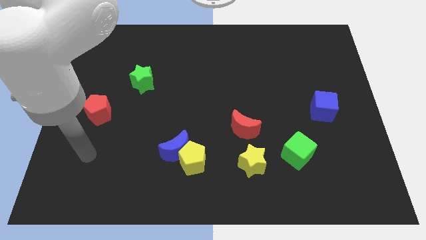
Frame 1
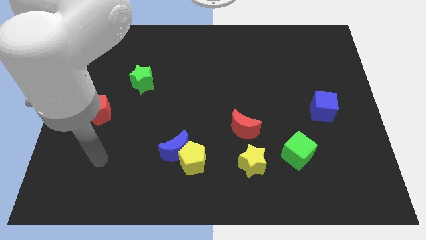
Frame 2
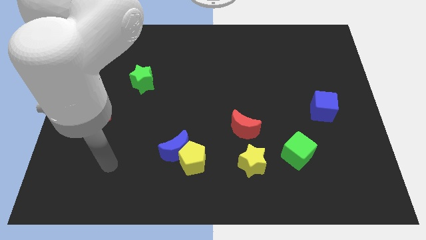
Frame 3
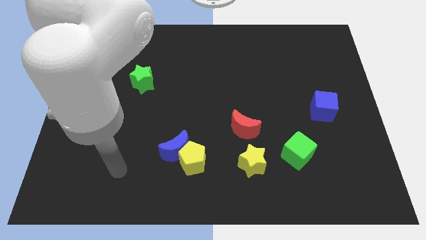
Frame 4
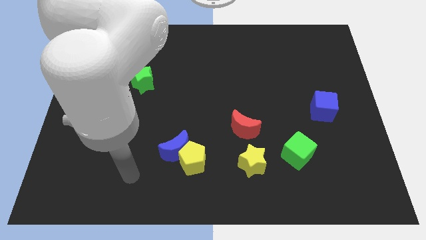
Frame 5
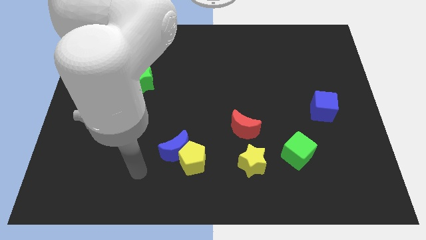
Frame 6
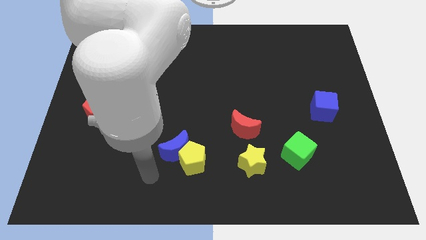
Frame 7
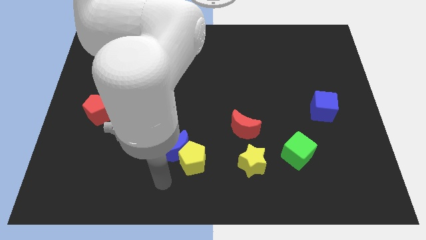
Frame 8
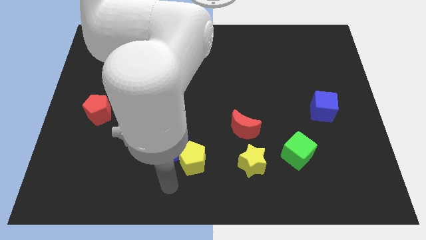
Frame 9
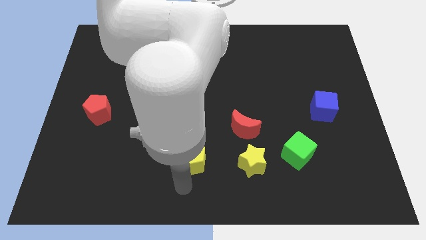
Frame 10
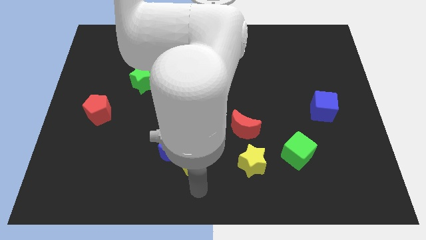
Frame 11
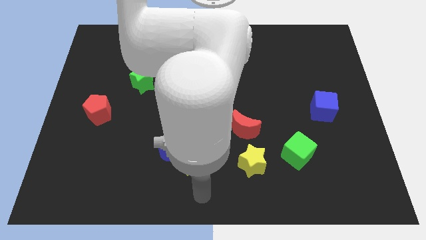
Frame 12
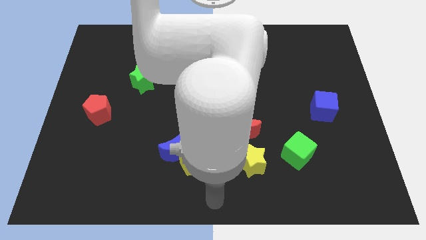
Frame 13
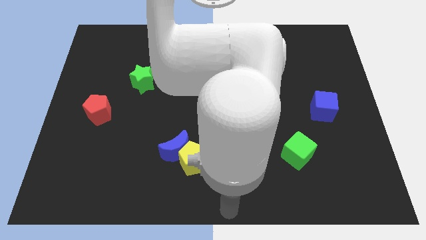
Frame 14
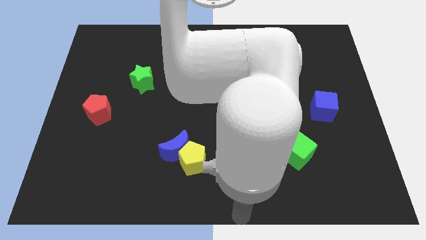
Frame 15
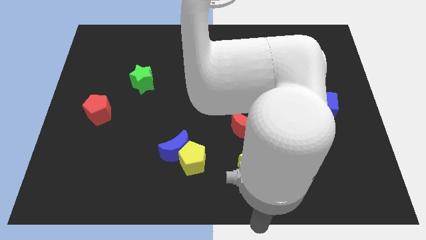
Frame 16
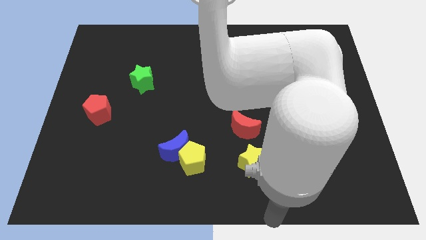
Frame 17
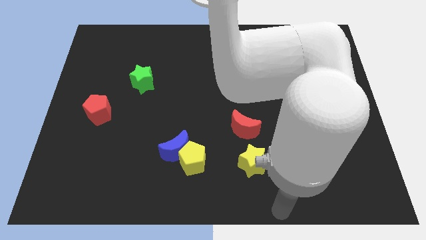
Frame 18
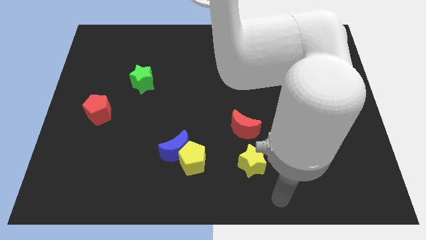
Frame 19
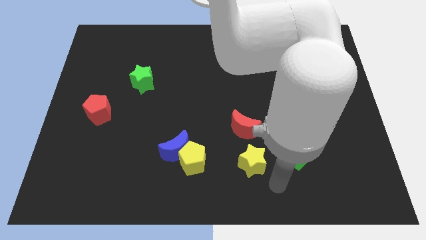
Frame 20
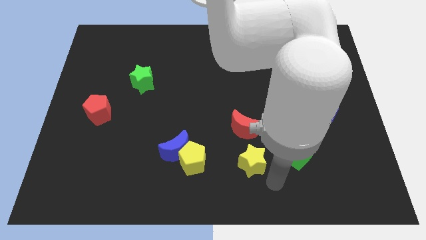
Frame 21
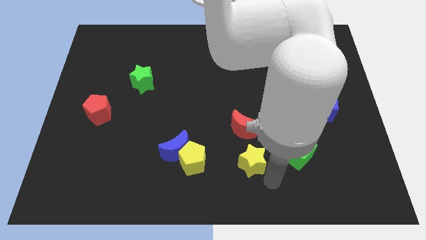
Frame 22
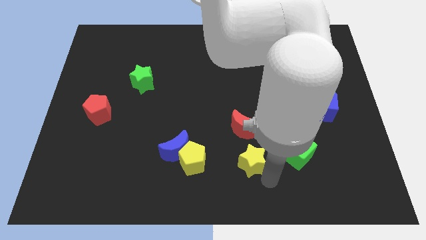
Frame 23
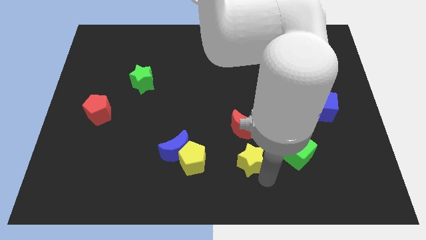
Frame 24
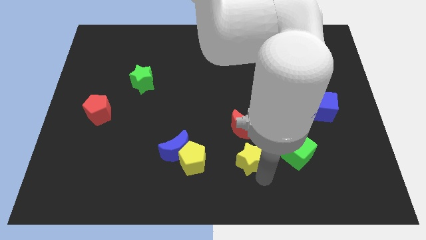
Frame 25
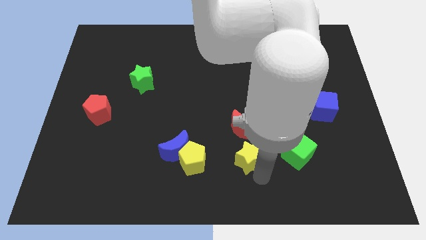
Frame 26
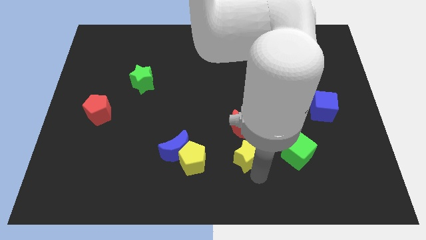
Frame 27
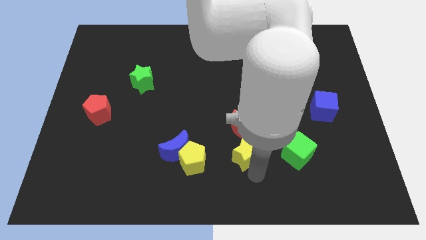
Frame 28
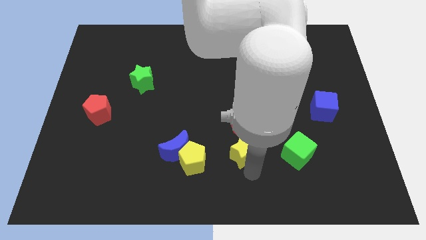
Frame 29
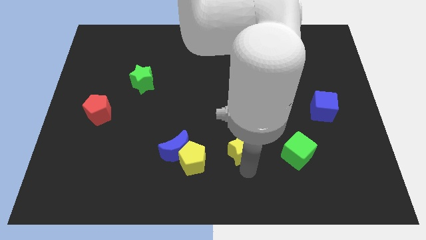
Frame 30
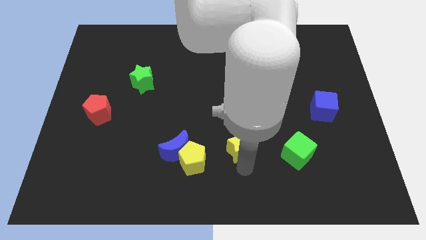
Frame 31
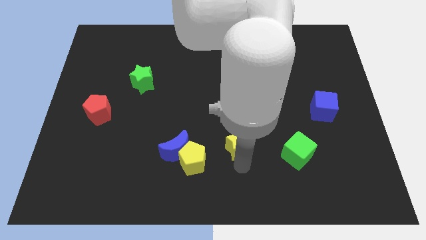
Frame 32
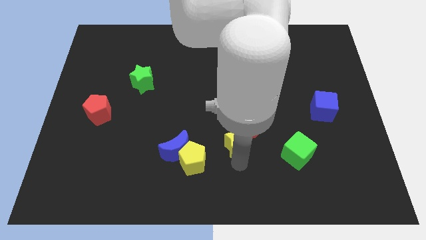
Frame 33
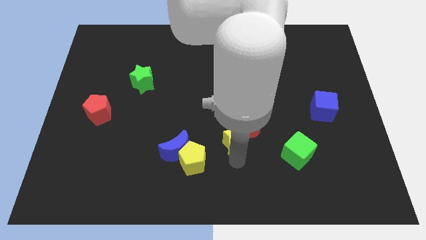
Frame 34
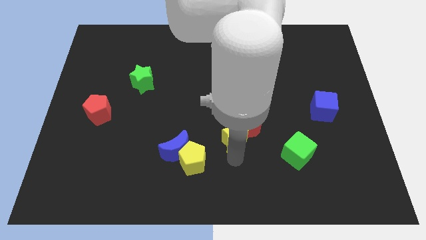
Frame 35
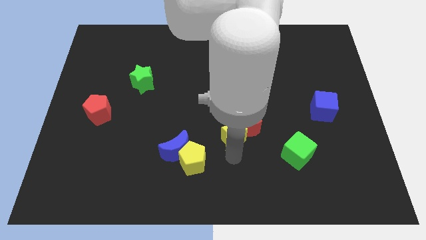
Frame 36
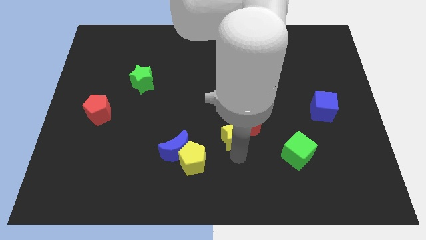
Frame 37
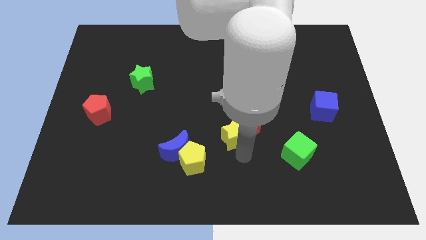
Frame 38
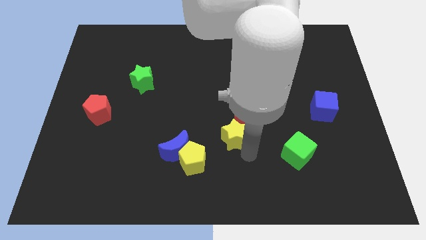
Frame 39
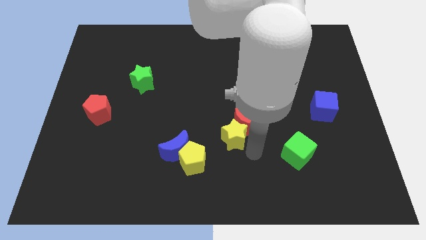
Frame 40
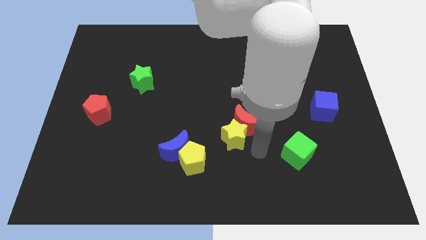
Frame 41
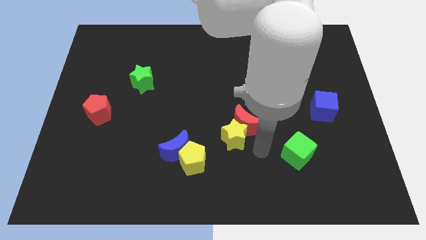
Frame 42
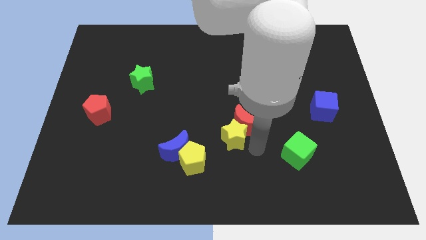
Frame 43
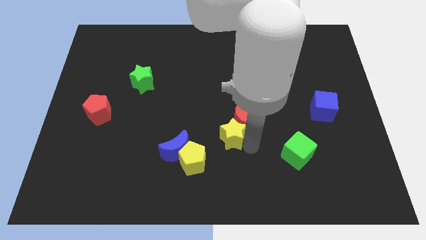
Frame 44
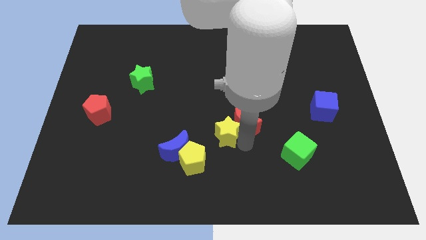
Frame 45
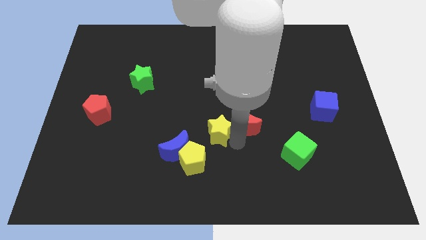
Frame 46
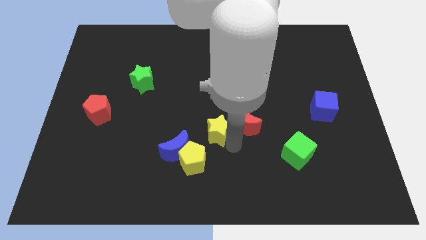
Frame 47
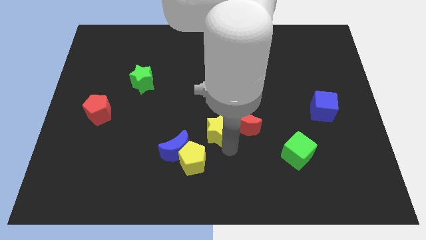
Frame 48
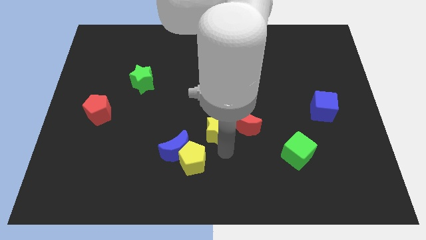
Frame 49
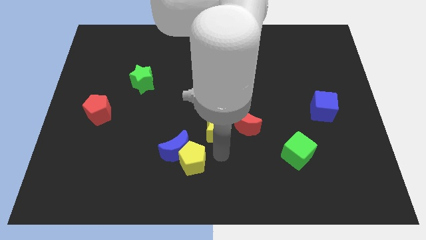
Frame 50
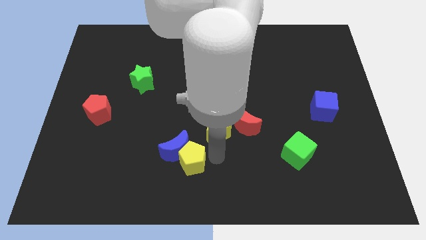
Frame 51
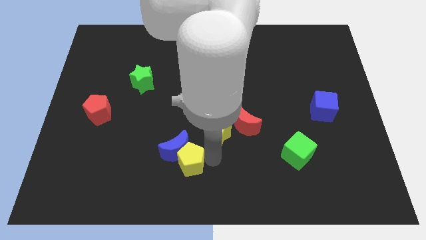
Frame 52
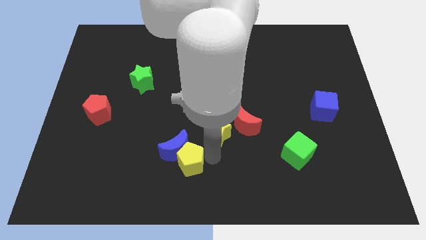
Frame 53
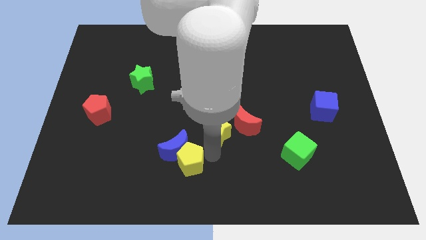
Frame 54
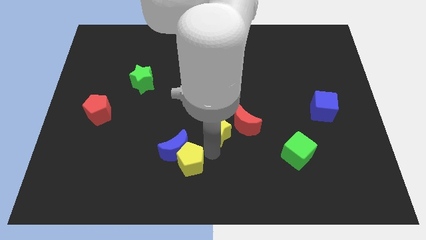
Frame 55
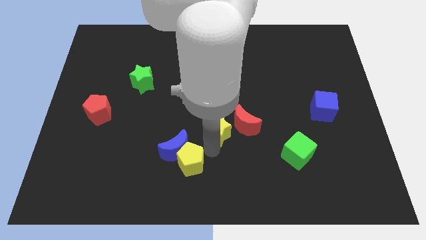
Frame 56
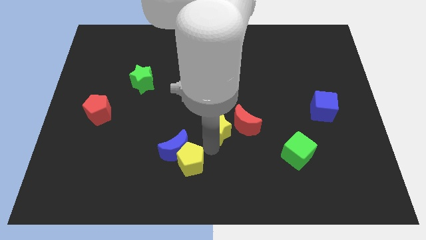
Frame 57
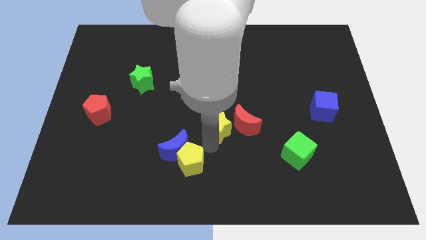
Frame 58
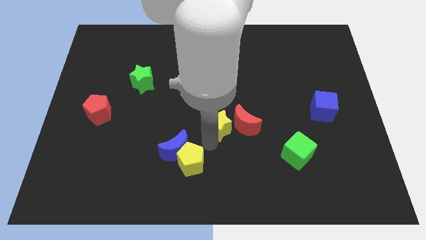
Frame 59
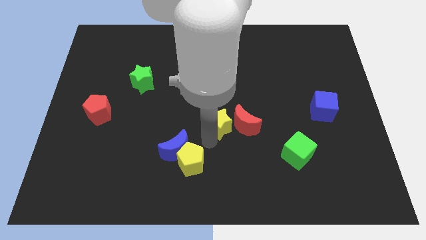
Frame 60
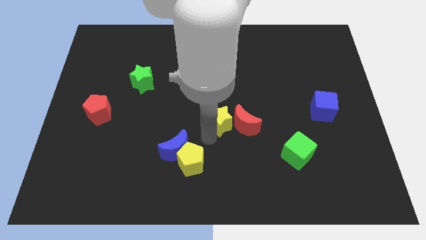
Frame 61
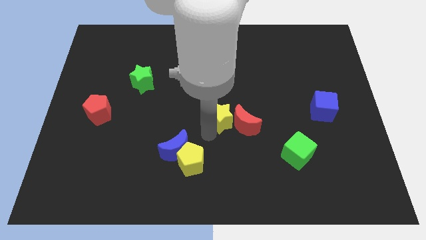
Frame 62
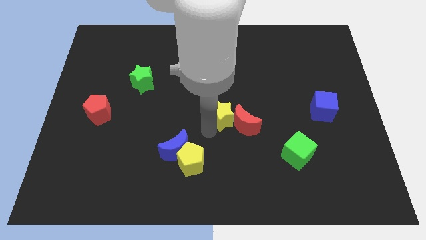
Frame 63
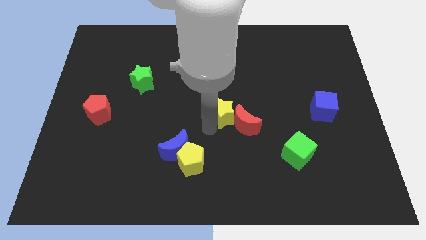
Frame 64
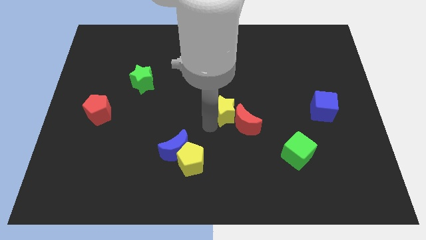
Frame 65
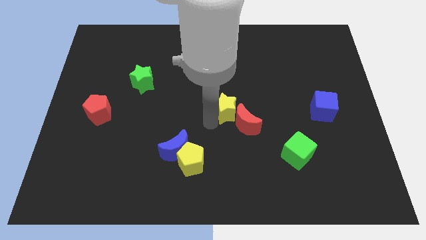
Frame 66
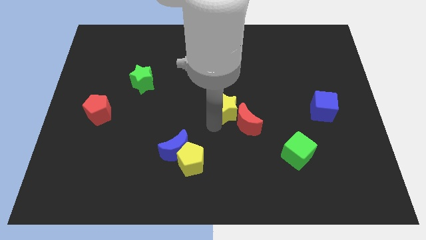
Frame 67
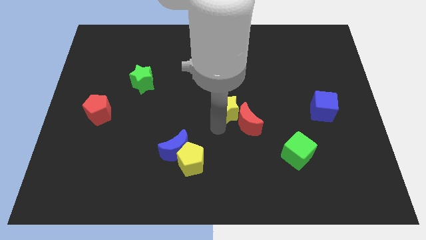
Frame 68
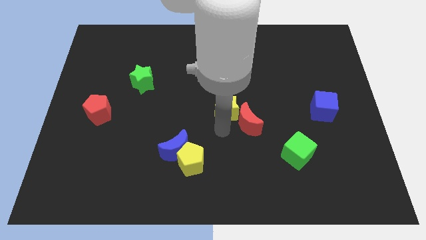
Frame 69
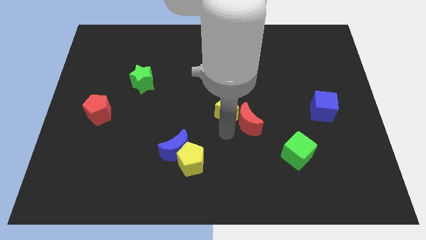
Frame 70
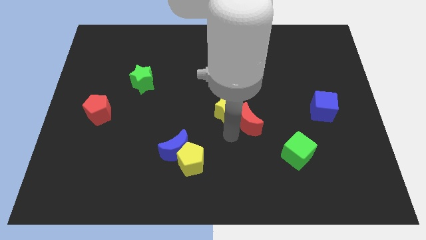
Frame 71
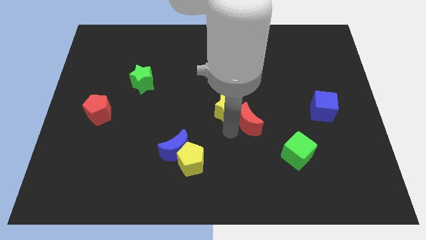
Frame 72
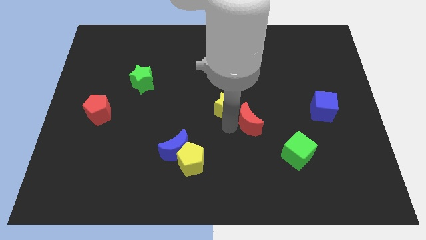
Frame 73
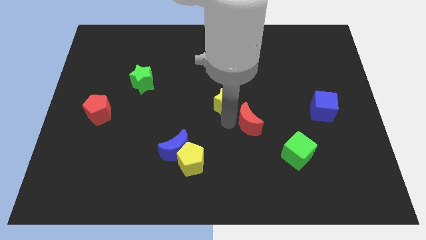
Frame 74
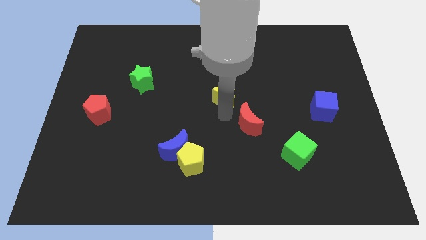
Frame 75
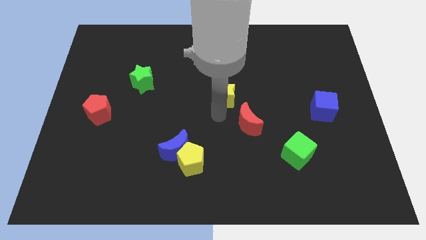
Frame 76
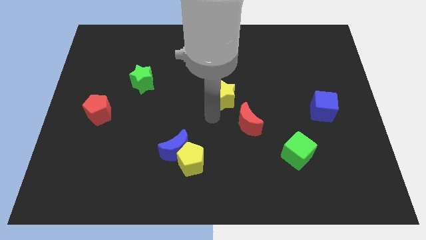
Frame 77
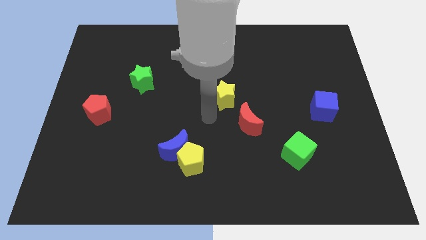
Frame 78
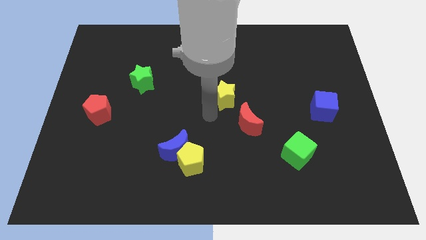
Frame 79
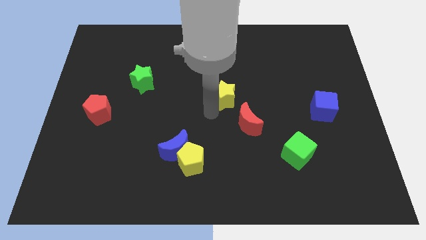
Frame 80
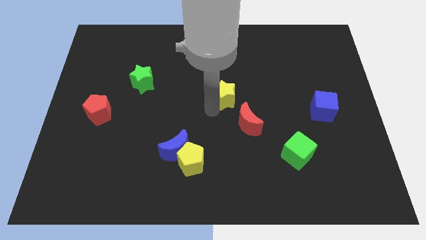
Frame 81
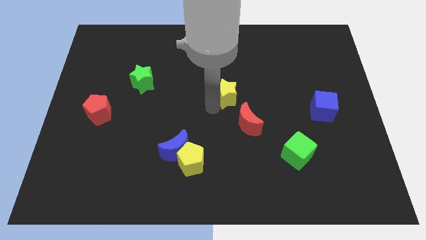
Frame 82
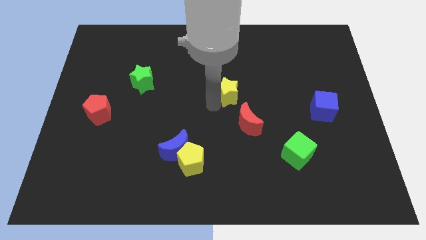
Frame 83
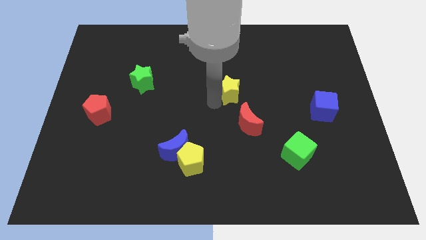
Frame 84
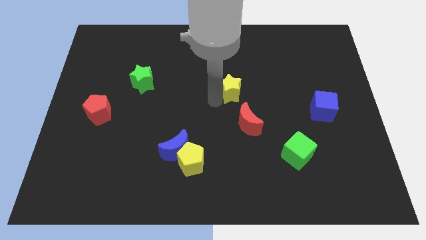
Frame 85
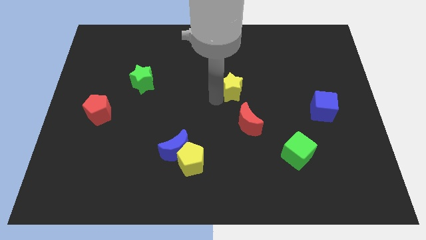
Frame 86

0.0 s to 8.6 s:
move the yellow star up
